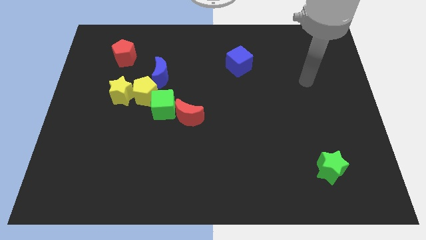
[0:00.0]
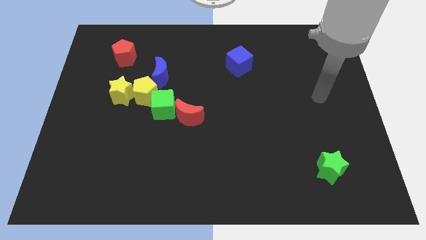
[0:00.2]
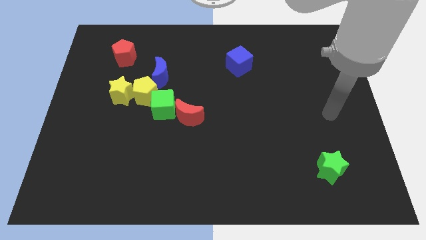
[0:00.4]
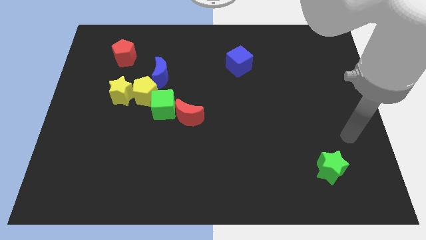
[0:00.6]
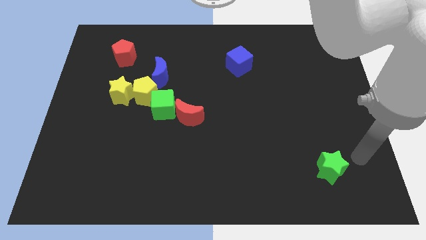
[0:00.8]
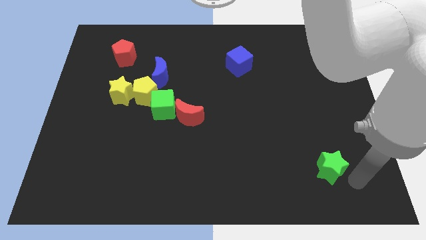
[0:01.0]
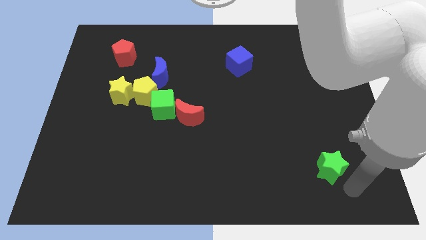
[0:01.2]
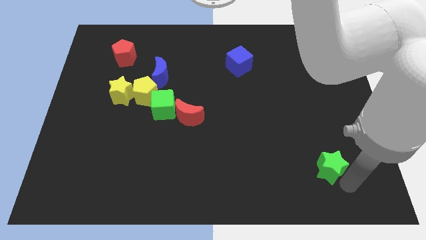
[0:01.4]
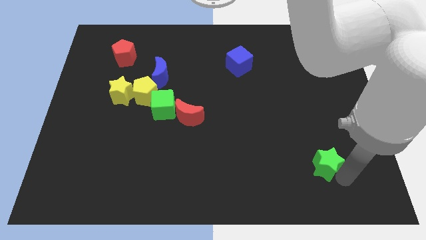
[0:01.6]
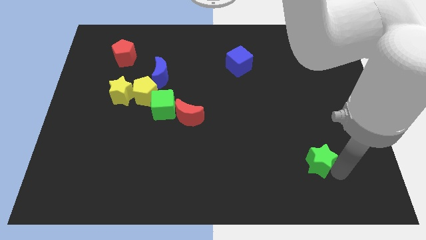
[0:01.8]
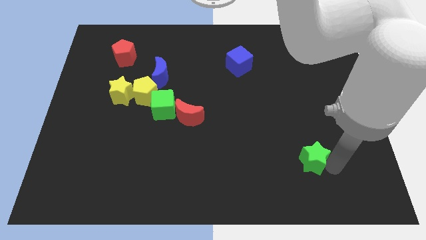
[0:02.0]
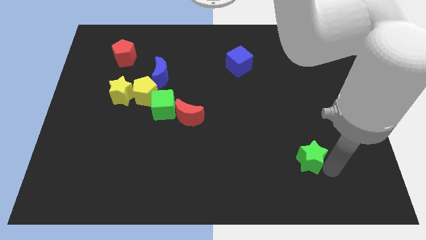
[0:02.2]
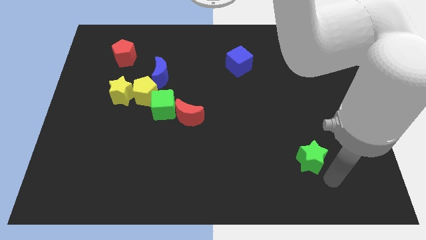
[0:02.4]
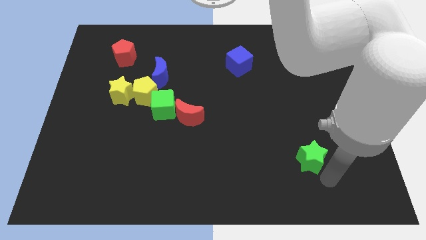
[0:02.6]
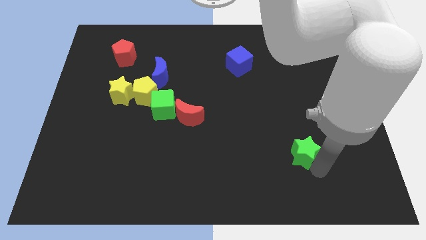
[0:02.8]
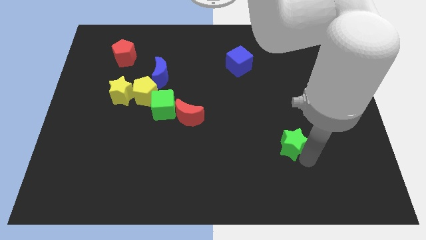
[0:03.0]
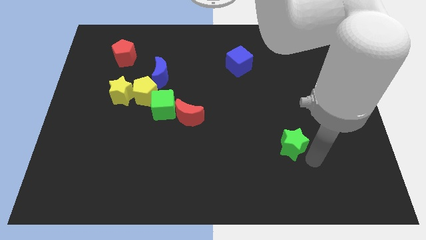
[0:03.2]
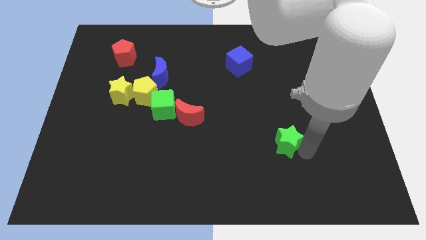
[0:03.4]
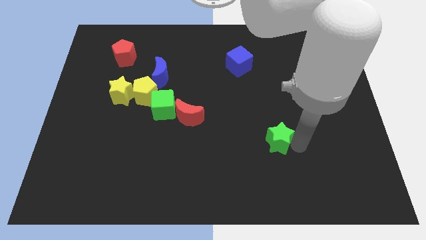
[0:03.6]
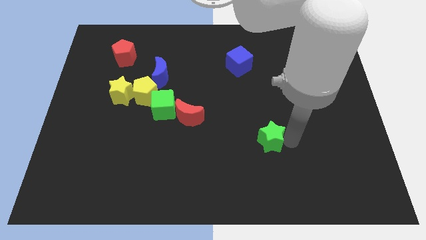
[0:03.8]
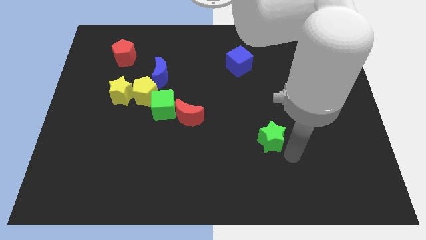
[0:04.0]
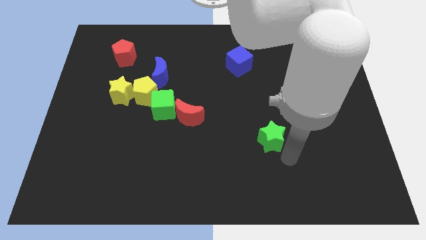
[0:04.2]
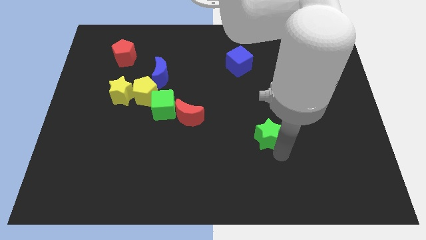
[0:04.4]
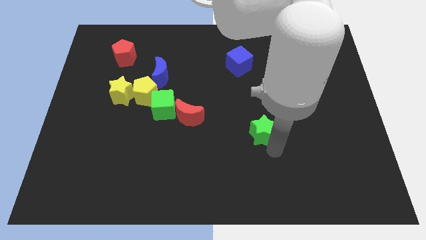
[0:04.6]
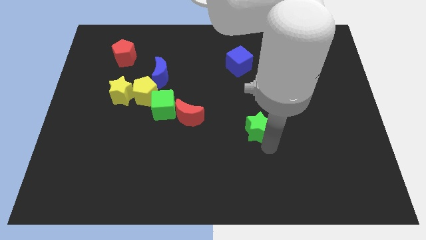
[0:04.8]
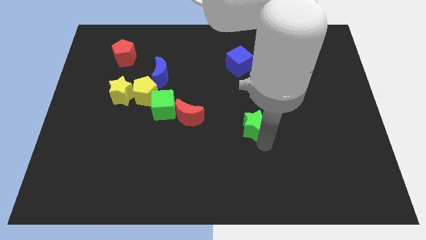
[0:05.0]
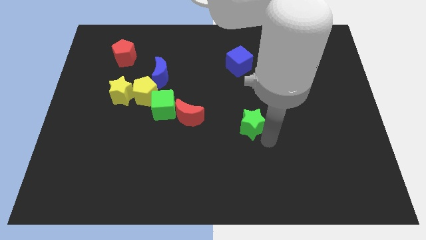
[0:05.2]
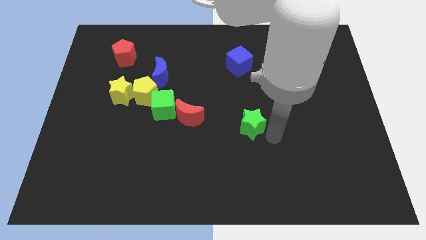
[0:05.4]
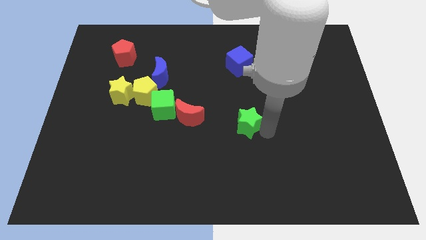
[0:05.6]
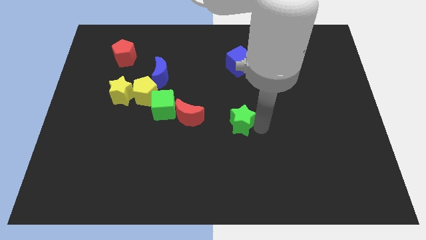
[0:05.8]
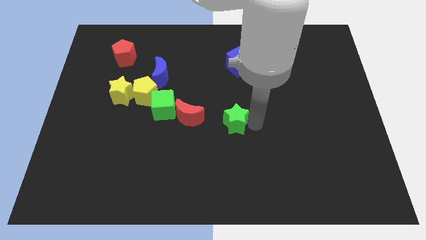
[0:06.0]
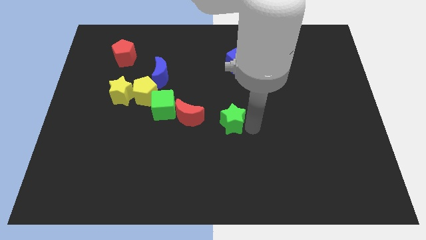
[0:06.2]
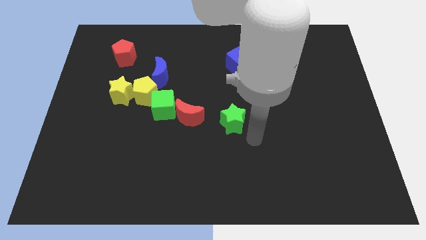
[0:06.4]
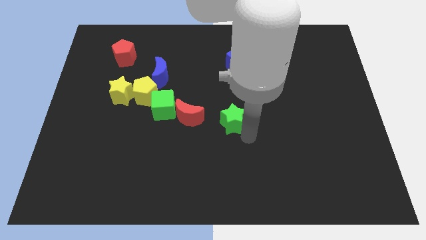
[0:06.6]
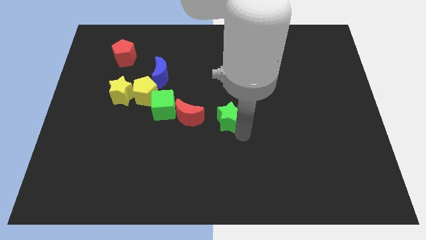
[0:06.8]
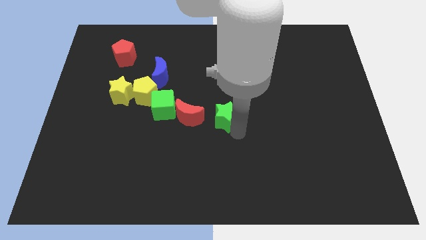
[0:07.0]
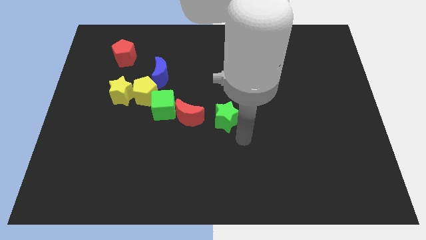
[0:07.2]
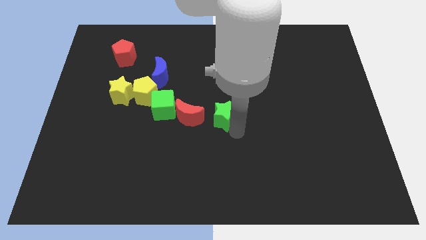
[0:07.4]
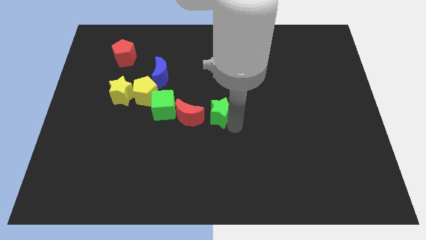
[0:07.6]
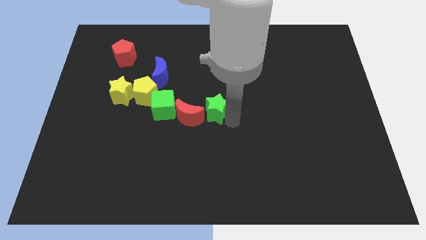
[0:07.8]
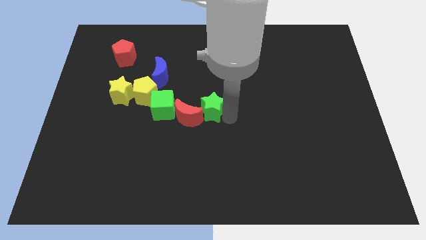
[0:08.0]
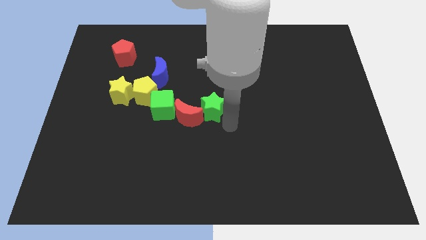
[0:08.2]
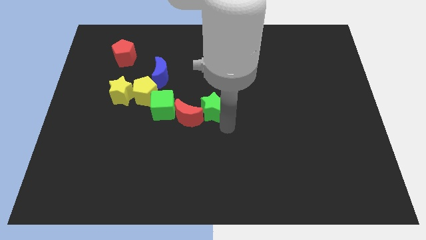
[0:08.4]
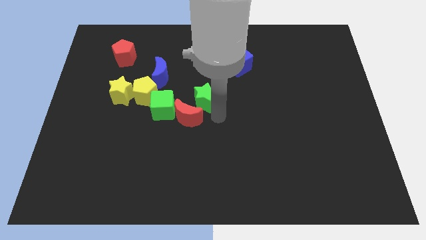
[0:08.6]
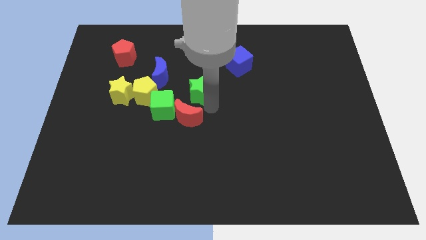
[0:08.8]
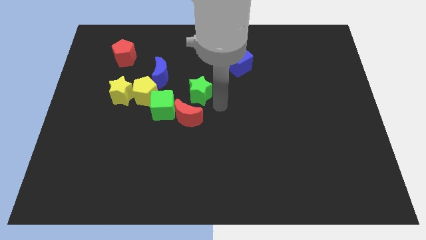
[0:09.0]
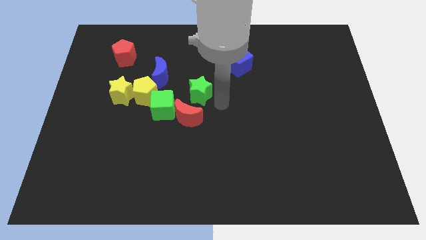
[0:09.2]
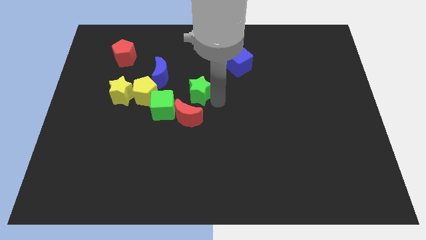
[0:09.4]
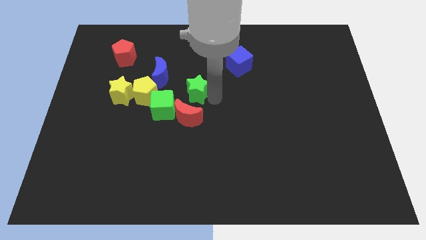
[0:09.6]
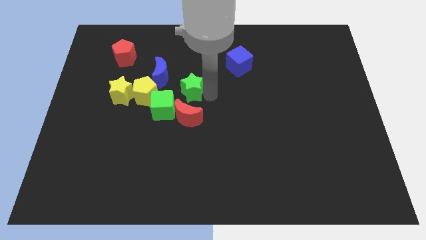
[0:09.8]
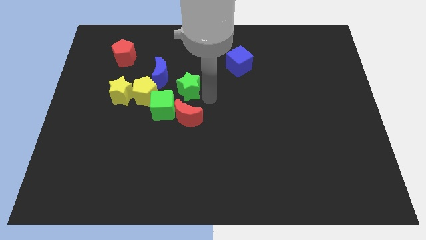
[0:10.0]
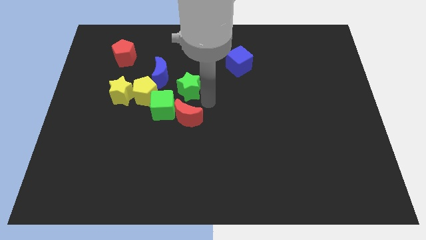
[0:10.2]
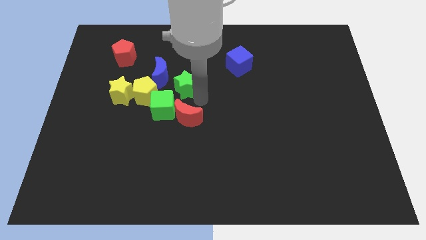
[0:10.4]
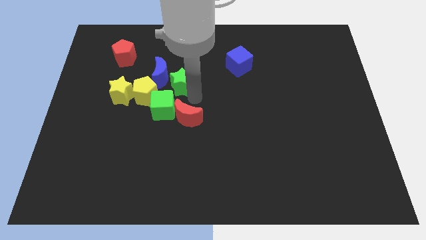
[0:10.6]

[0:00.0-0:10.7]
slide the green star to the blue moon

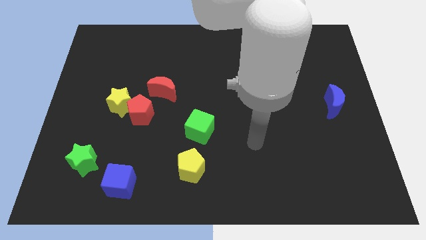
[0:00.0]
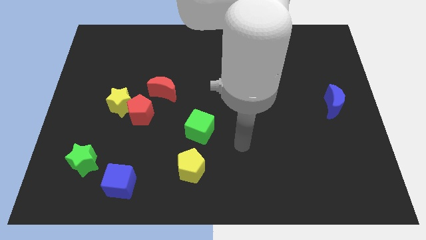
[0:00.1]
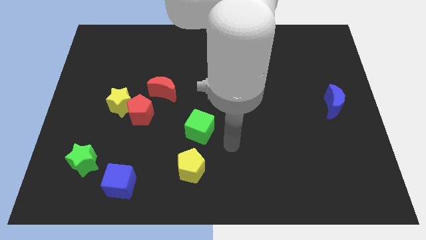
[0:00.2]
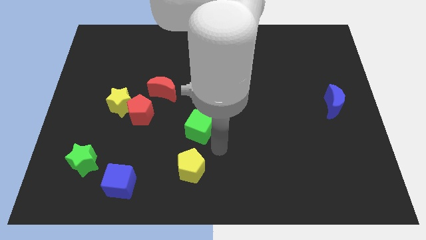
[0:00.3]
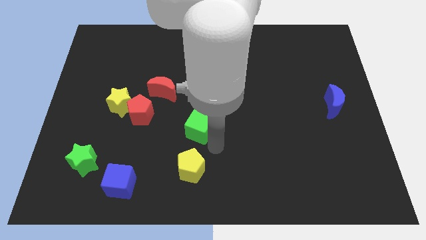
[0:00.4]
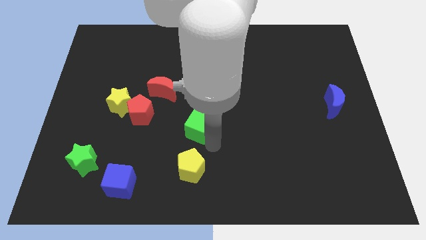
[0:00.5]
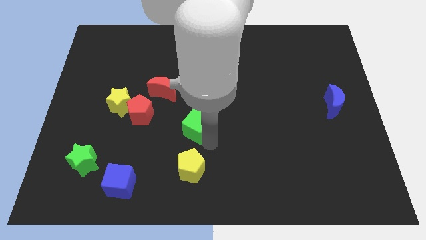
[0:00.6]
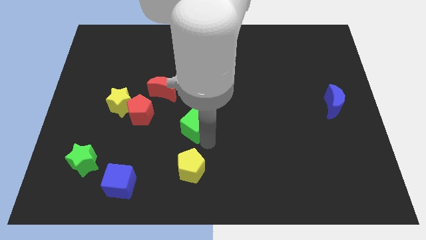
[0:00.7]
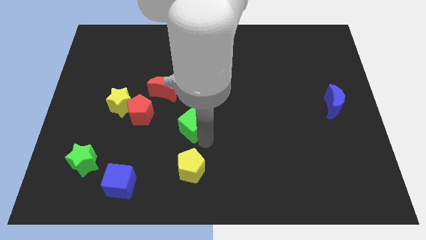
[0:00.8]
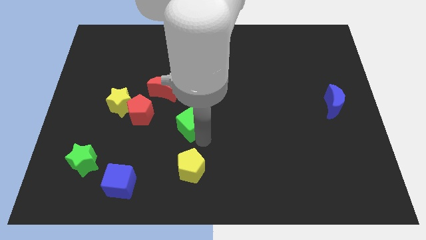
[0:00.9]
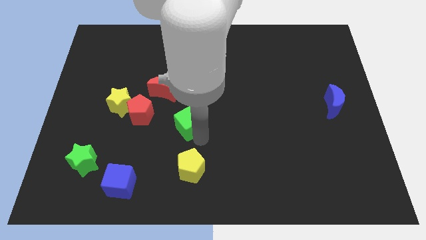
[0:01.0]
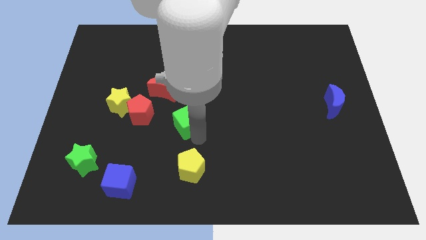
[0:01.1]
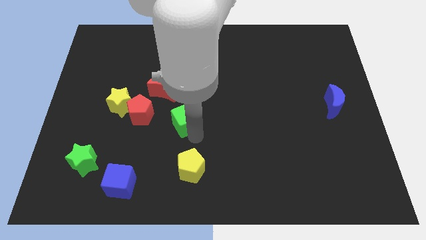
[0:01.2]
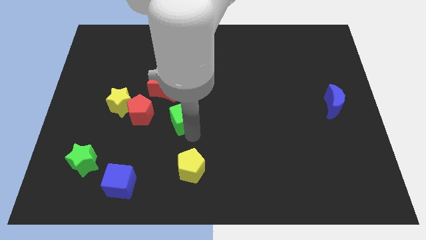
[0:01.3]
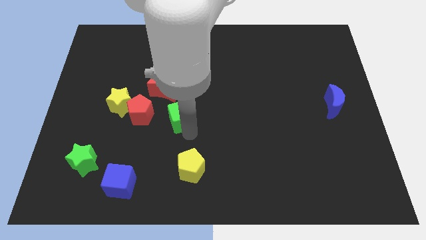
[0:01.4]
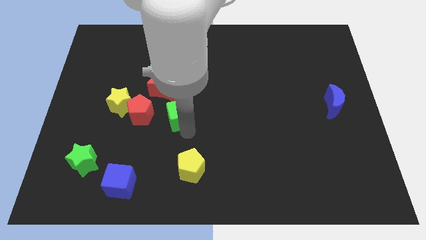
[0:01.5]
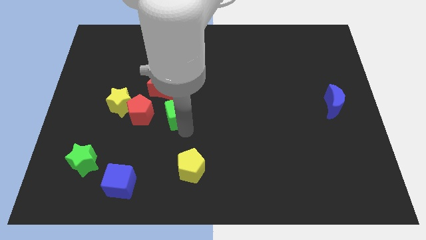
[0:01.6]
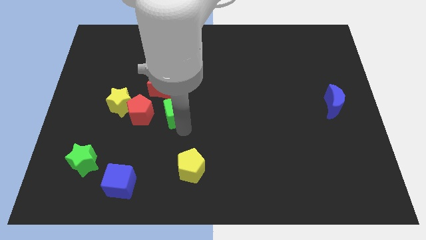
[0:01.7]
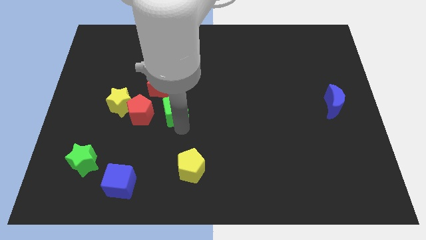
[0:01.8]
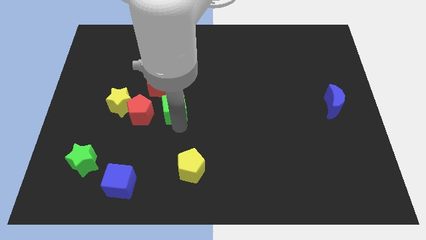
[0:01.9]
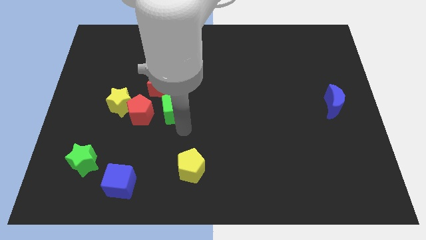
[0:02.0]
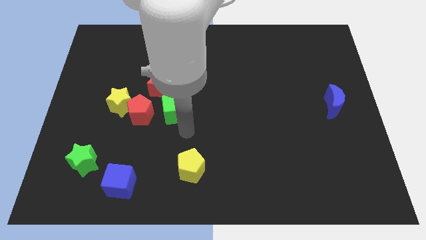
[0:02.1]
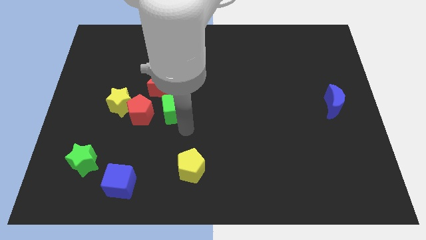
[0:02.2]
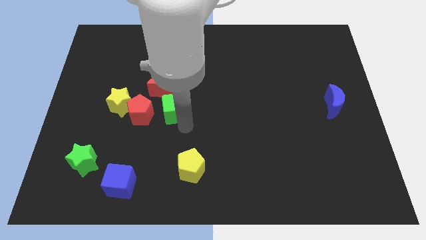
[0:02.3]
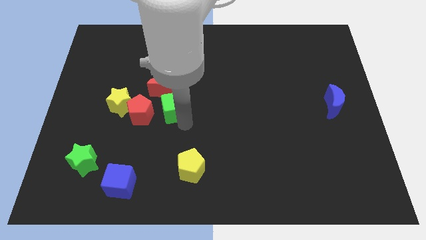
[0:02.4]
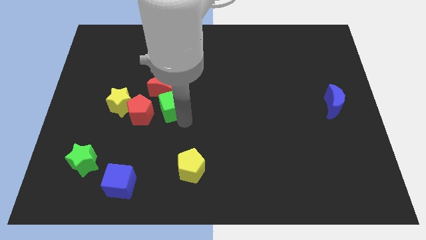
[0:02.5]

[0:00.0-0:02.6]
move the green cube close to the red moon
